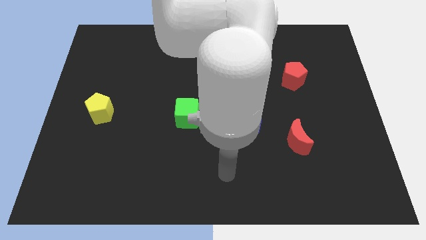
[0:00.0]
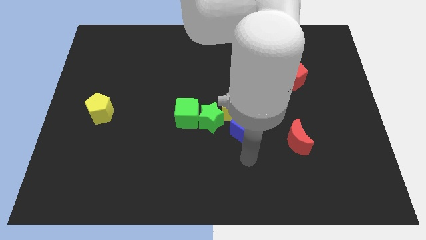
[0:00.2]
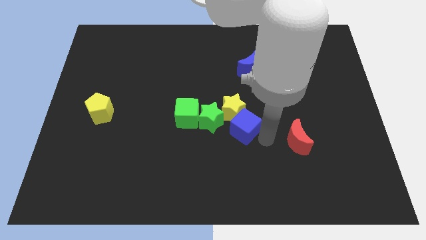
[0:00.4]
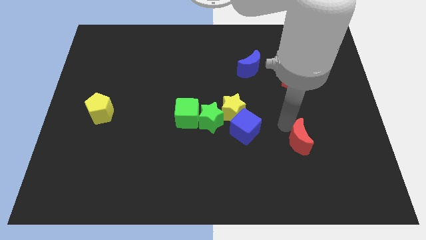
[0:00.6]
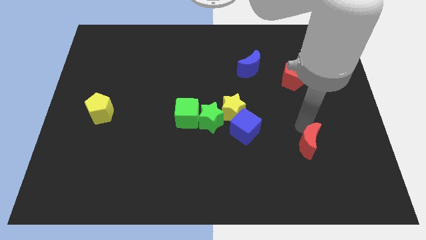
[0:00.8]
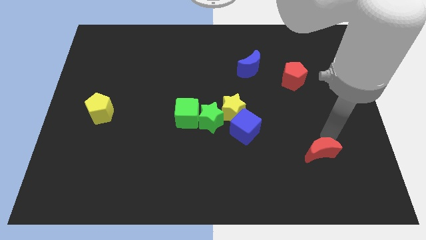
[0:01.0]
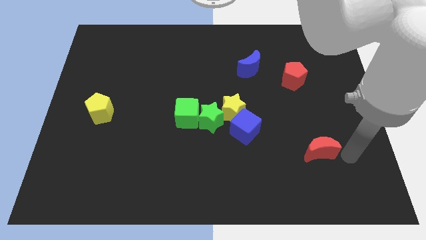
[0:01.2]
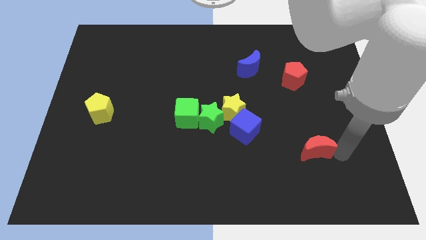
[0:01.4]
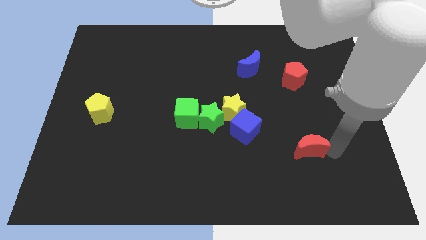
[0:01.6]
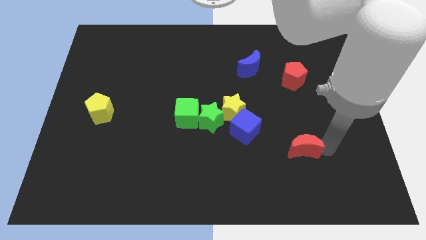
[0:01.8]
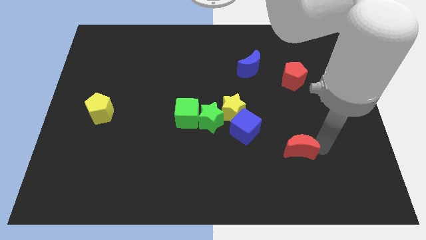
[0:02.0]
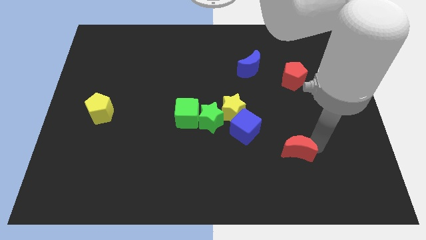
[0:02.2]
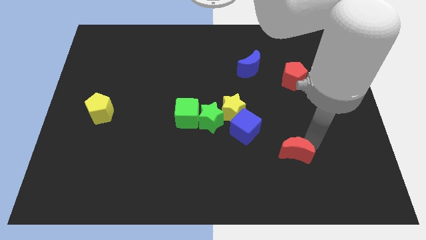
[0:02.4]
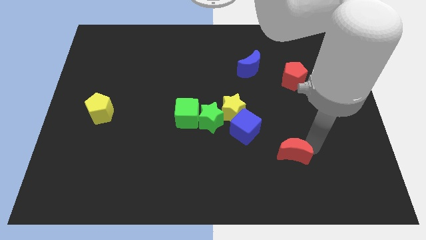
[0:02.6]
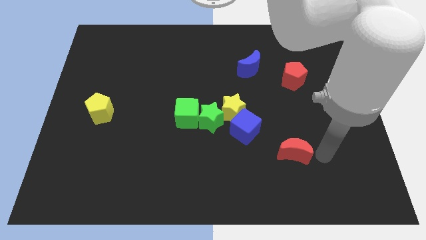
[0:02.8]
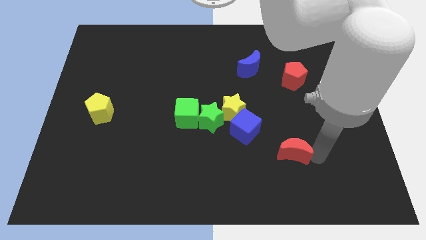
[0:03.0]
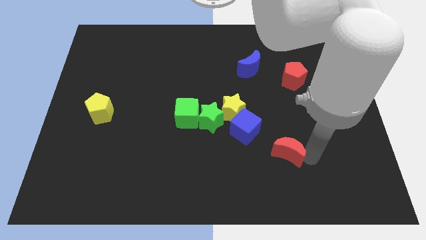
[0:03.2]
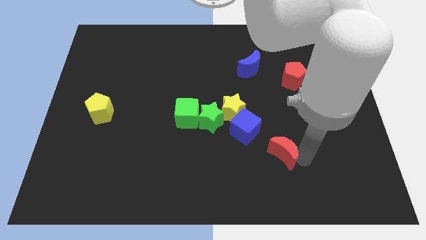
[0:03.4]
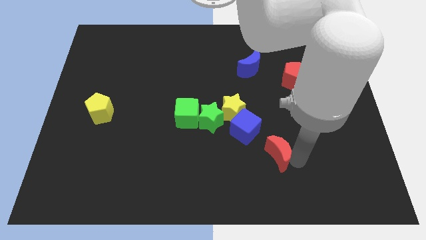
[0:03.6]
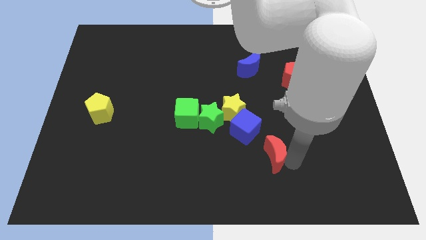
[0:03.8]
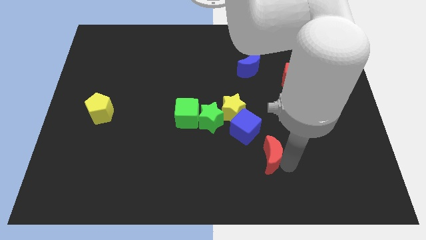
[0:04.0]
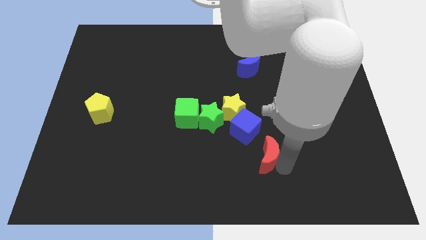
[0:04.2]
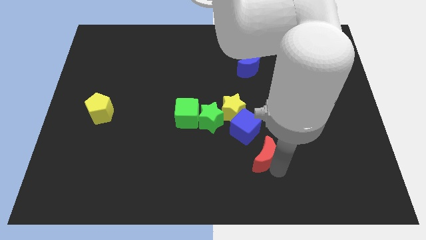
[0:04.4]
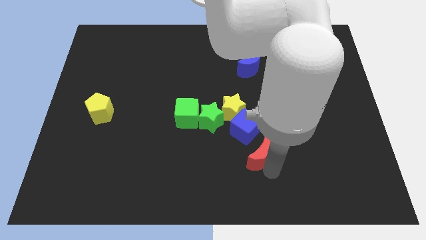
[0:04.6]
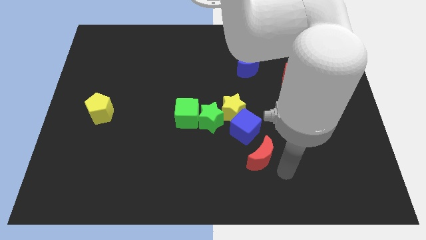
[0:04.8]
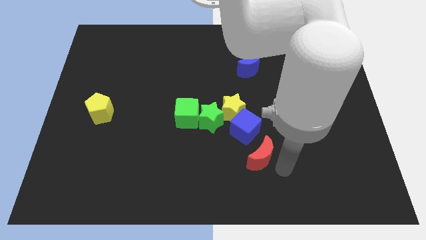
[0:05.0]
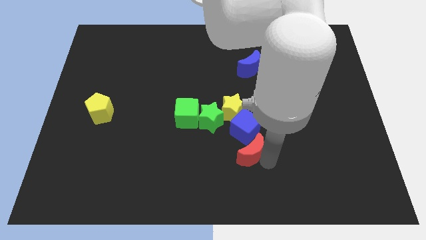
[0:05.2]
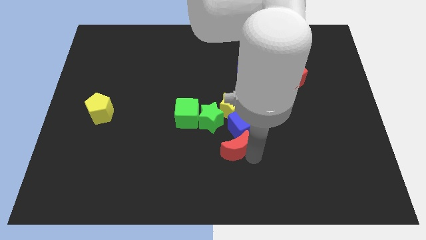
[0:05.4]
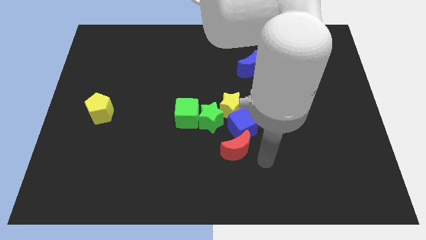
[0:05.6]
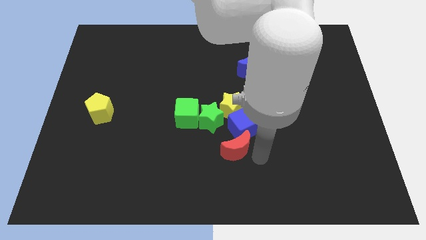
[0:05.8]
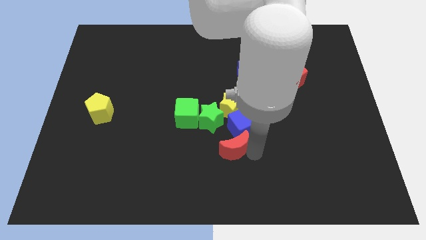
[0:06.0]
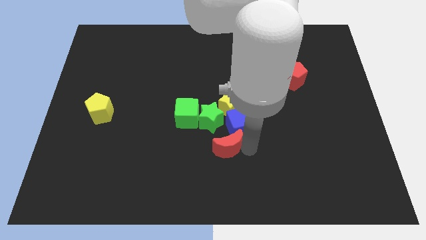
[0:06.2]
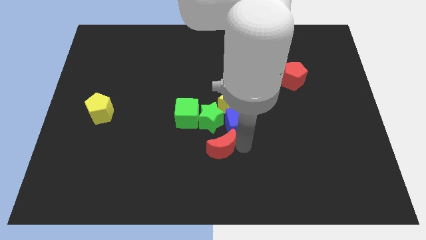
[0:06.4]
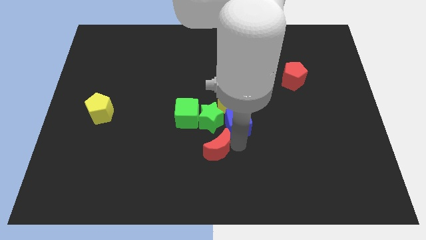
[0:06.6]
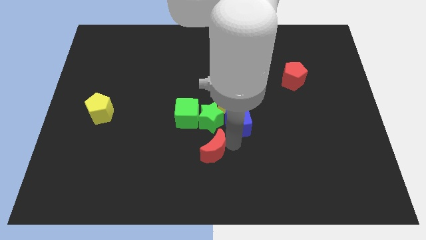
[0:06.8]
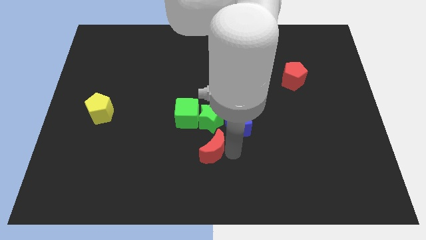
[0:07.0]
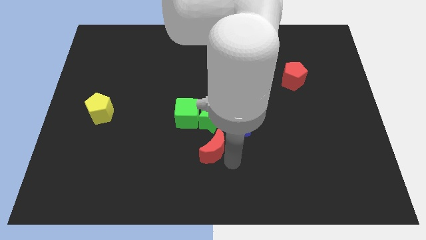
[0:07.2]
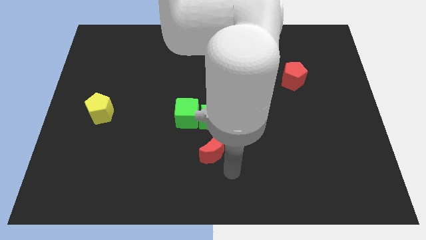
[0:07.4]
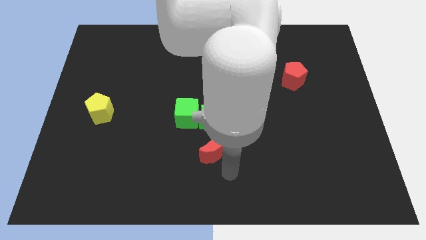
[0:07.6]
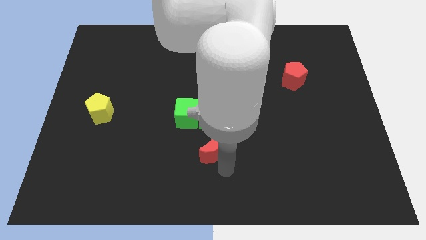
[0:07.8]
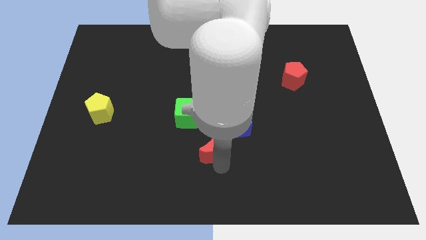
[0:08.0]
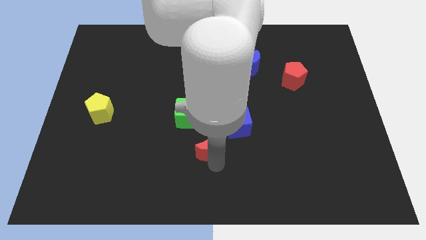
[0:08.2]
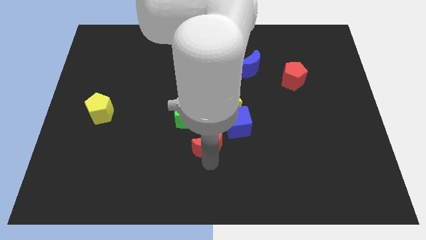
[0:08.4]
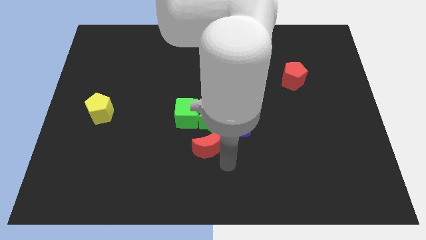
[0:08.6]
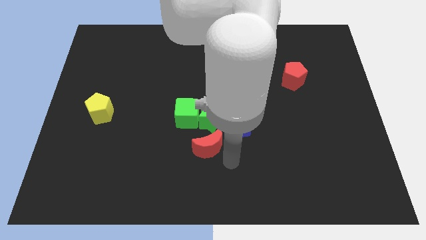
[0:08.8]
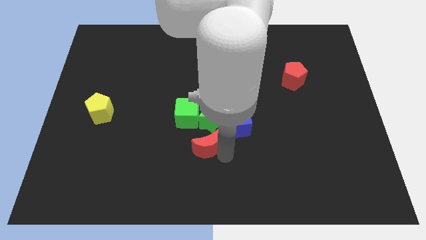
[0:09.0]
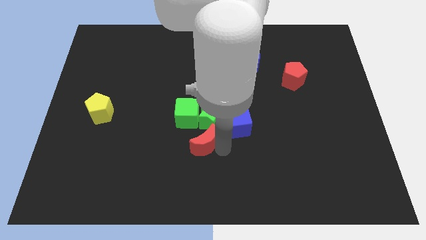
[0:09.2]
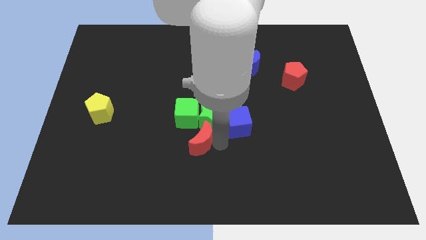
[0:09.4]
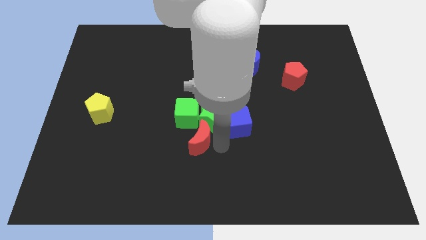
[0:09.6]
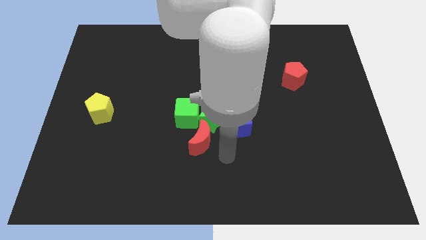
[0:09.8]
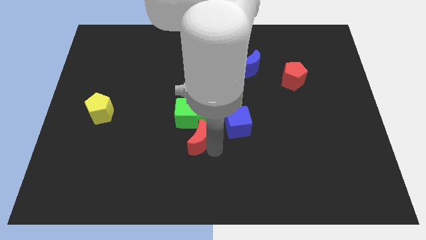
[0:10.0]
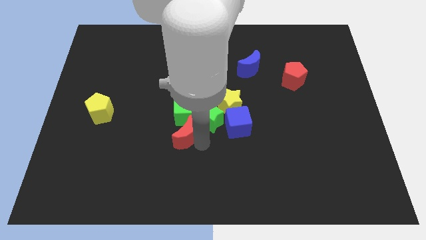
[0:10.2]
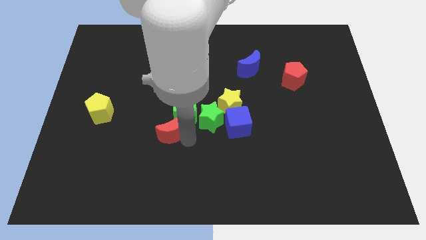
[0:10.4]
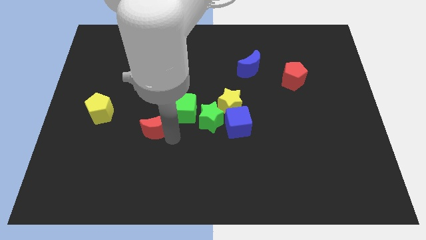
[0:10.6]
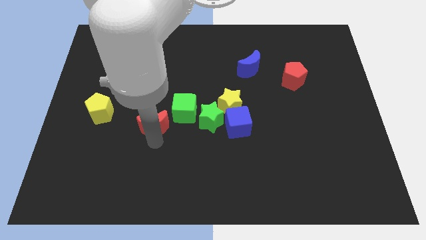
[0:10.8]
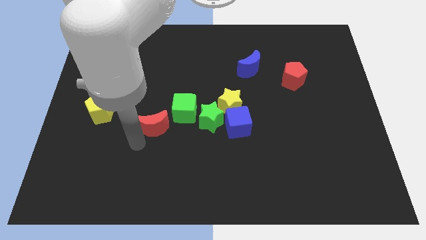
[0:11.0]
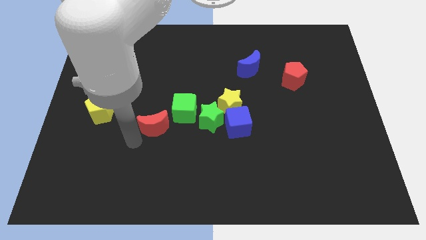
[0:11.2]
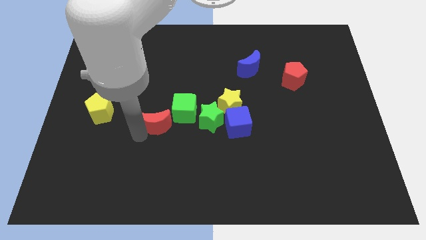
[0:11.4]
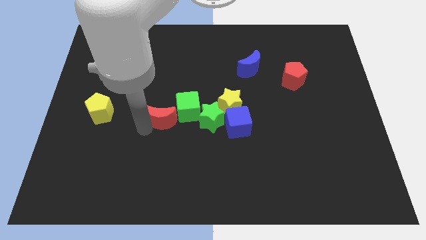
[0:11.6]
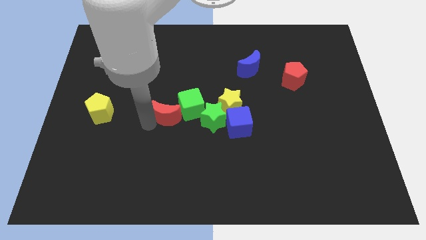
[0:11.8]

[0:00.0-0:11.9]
slide the red moon just left of the yellow star
